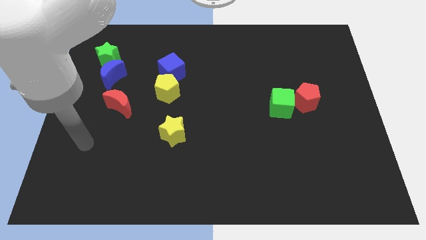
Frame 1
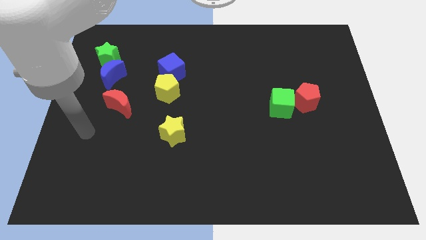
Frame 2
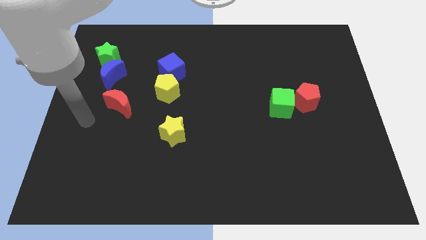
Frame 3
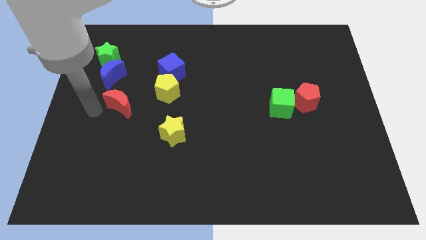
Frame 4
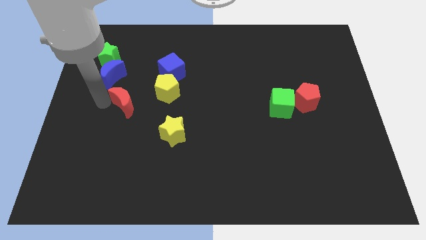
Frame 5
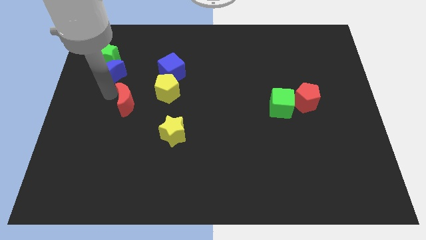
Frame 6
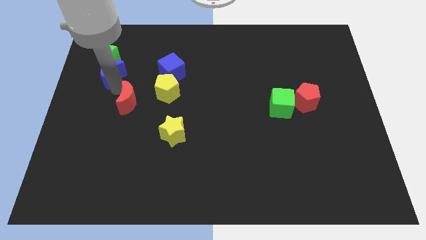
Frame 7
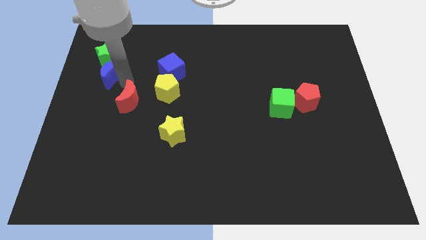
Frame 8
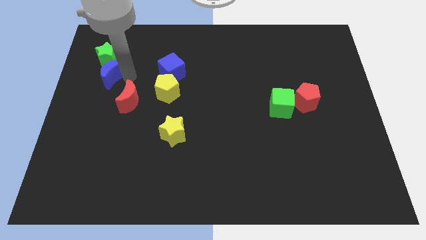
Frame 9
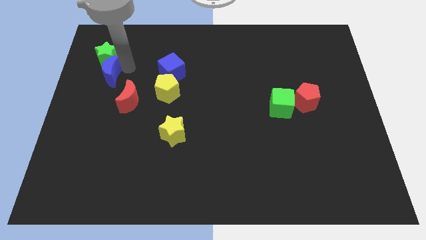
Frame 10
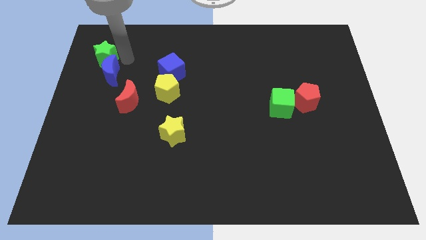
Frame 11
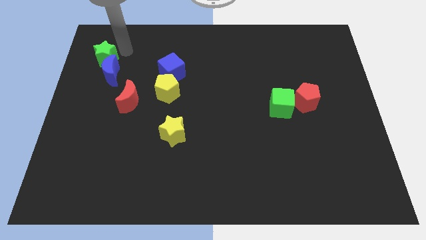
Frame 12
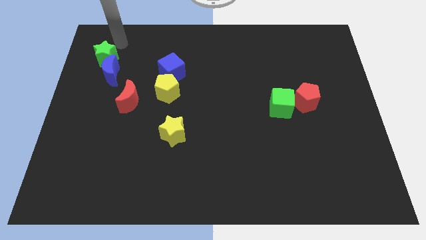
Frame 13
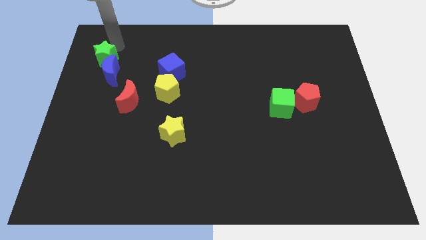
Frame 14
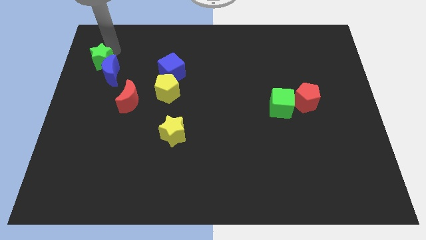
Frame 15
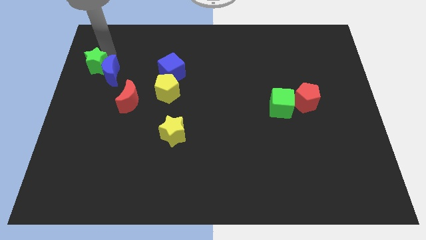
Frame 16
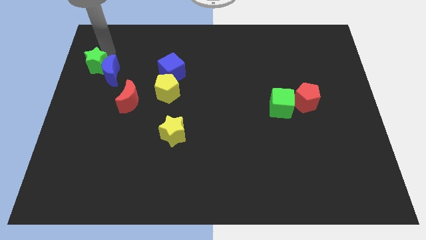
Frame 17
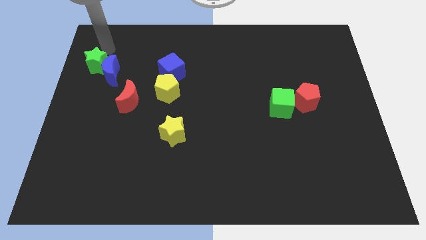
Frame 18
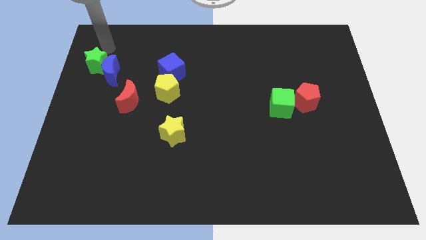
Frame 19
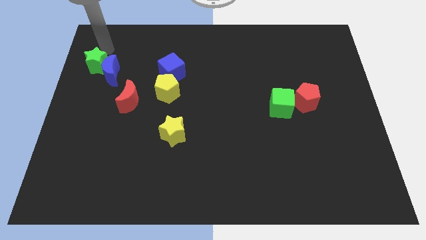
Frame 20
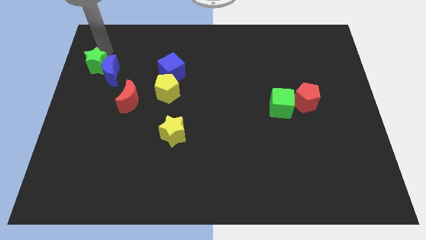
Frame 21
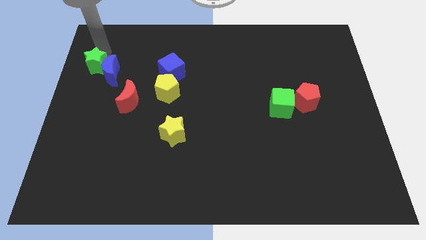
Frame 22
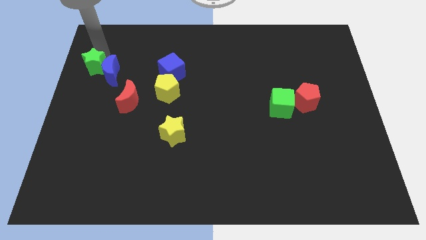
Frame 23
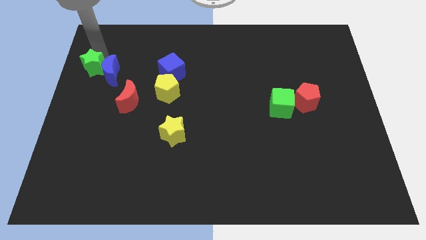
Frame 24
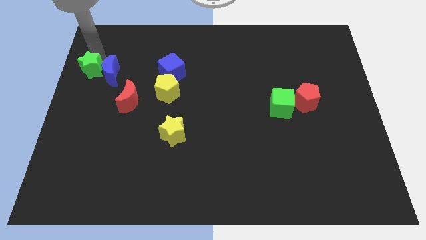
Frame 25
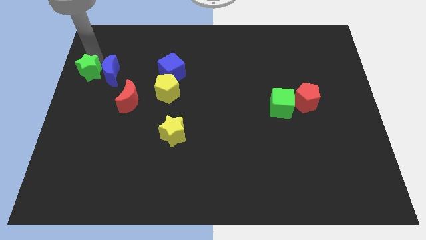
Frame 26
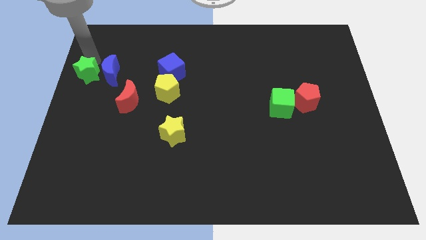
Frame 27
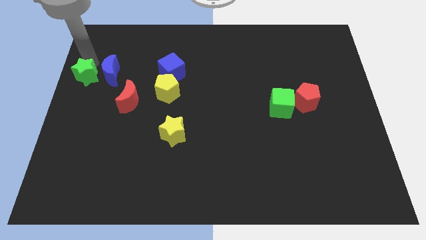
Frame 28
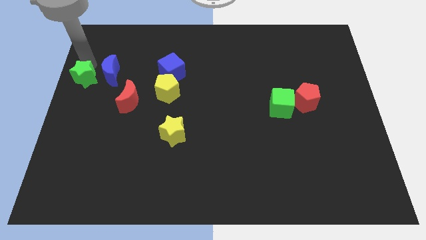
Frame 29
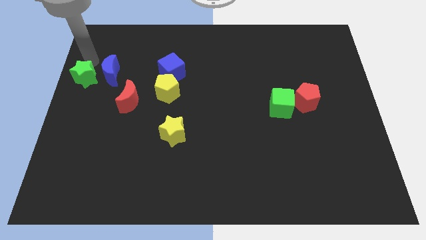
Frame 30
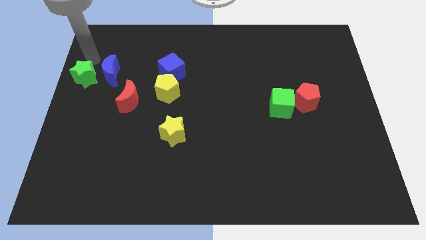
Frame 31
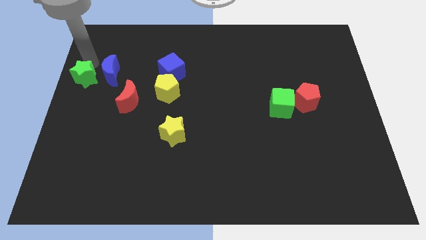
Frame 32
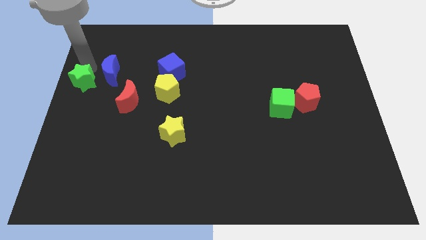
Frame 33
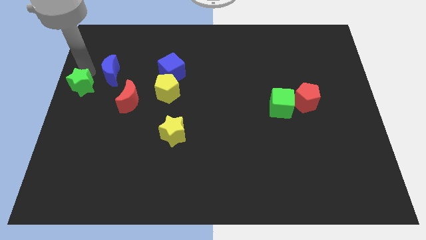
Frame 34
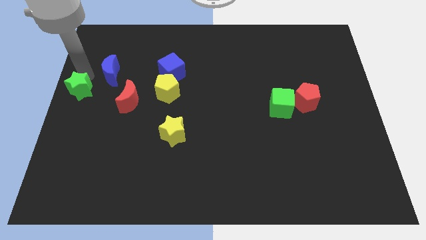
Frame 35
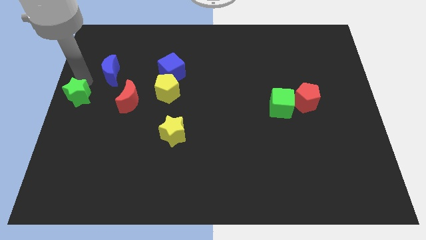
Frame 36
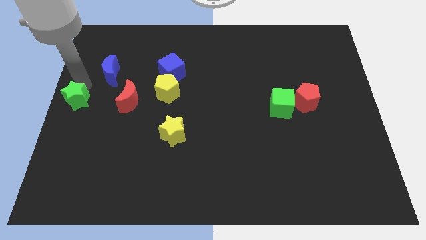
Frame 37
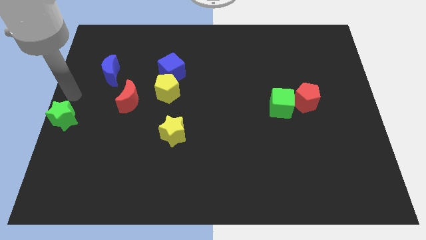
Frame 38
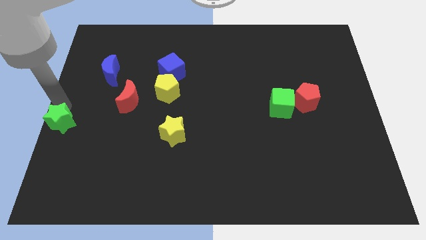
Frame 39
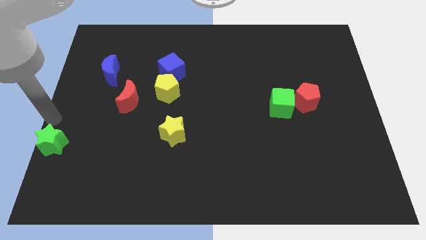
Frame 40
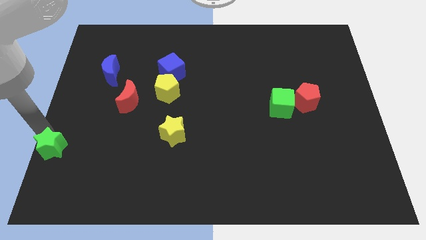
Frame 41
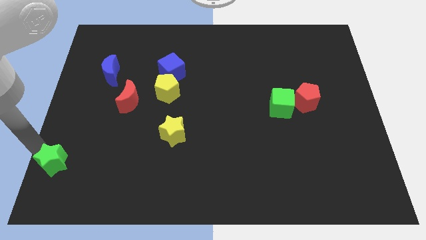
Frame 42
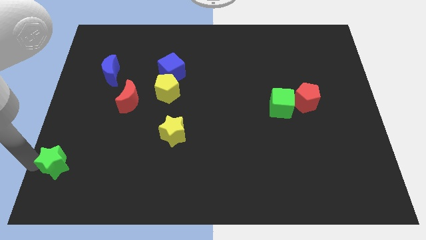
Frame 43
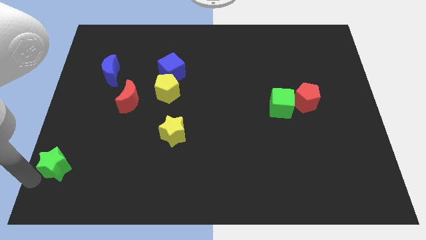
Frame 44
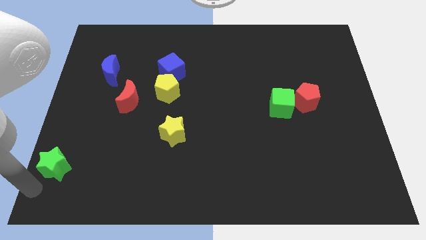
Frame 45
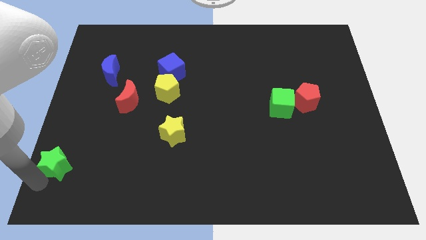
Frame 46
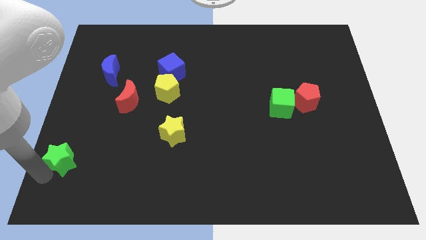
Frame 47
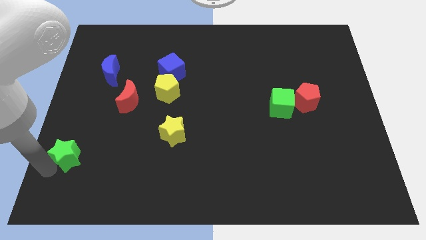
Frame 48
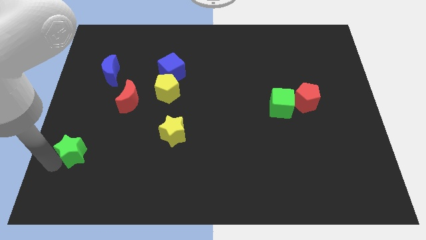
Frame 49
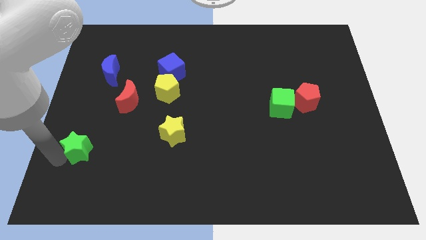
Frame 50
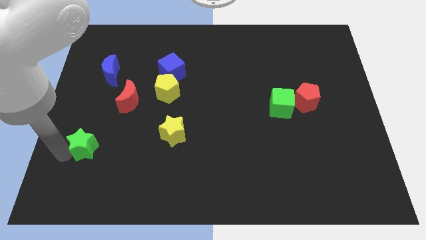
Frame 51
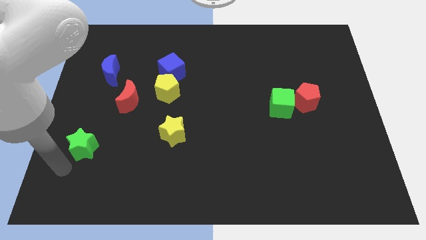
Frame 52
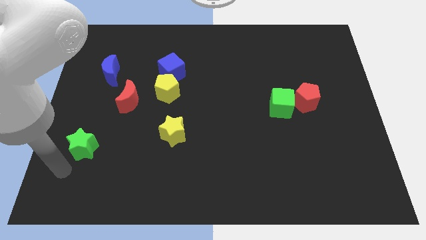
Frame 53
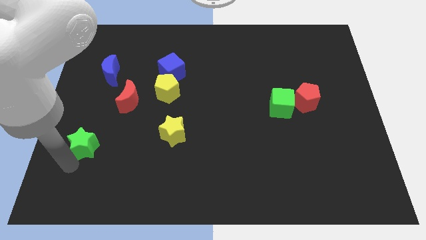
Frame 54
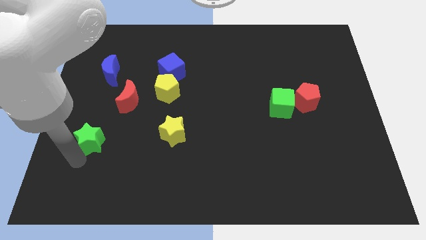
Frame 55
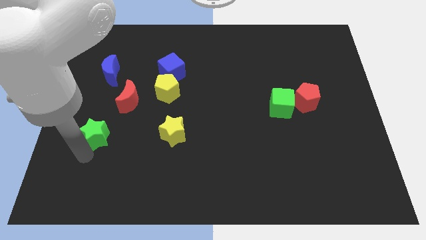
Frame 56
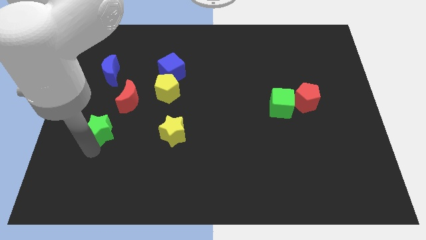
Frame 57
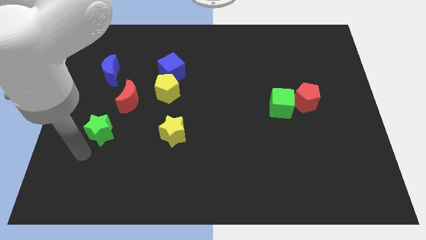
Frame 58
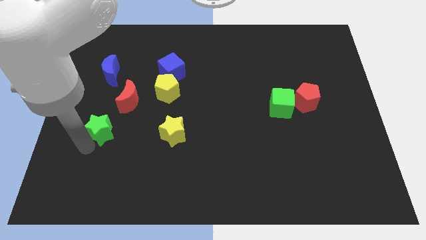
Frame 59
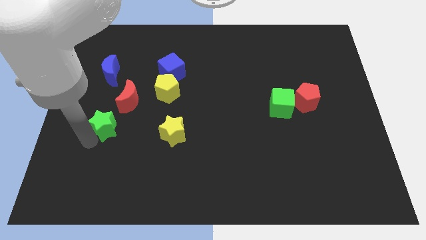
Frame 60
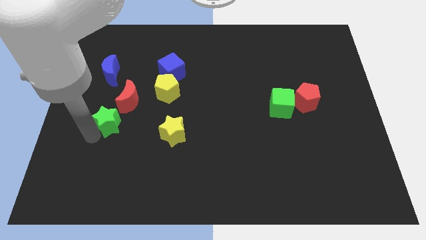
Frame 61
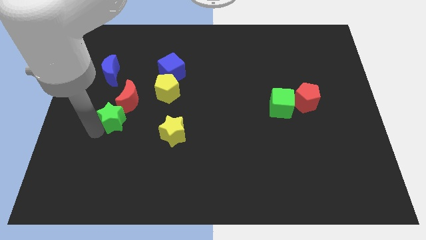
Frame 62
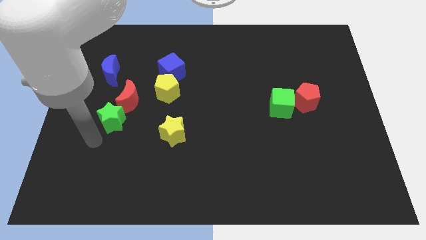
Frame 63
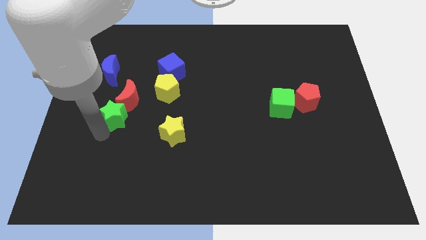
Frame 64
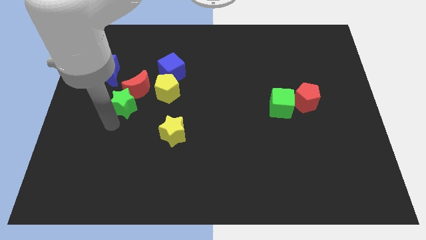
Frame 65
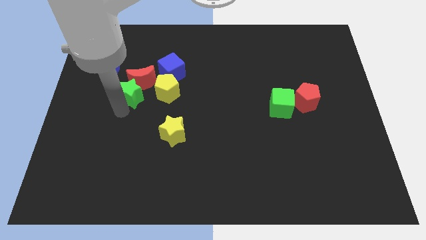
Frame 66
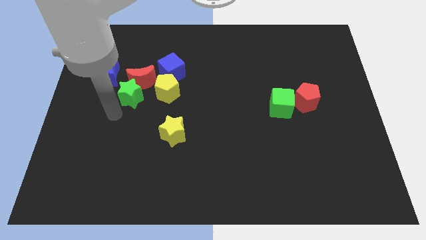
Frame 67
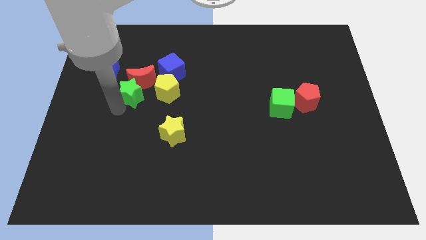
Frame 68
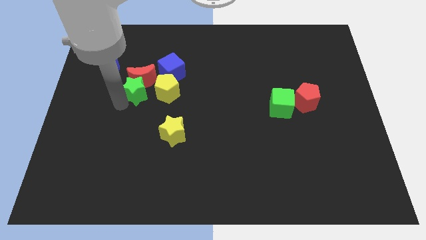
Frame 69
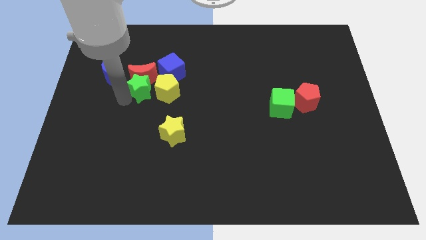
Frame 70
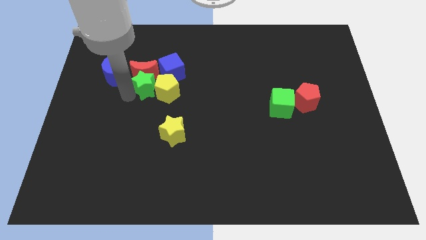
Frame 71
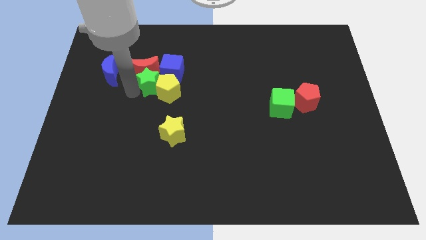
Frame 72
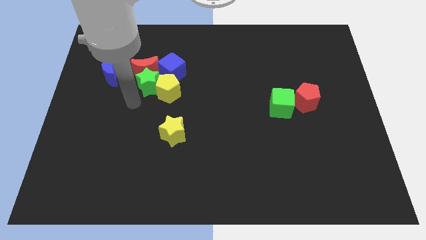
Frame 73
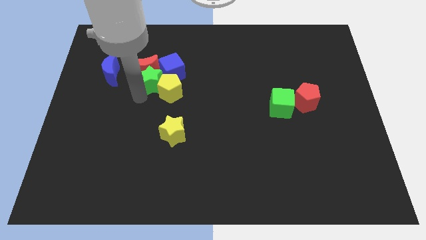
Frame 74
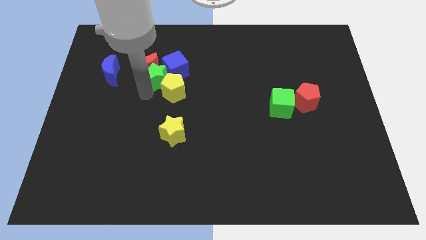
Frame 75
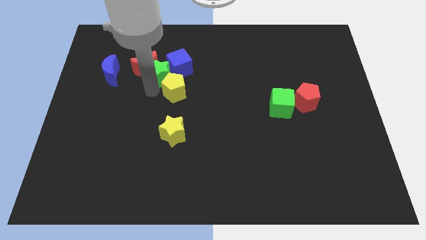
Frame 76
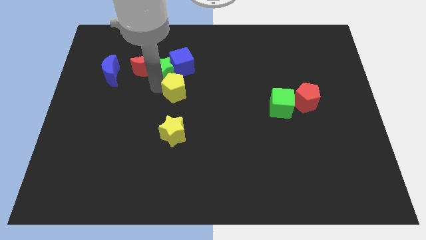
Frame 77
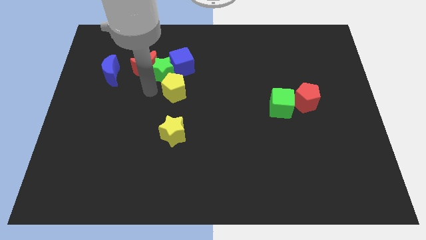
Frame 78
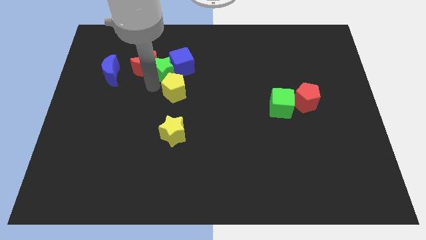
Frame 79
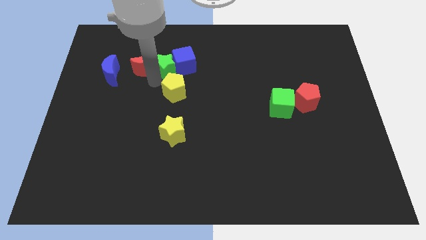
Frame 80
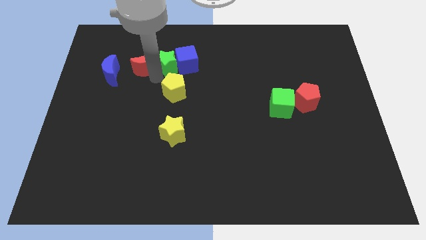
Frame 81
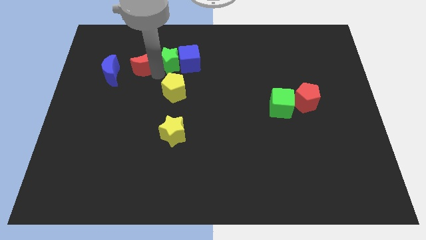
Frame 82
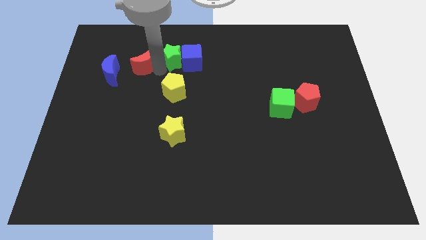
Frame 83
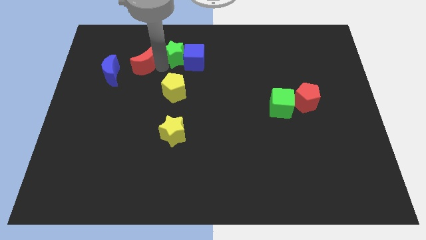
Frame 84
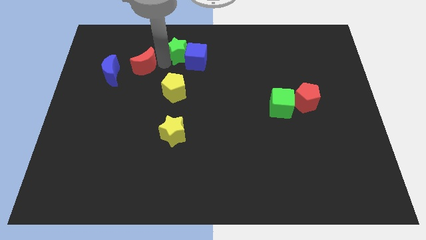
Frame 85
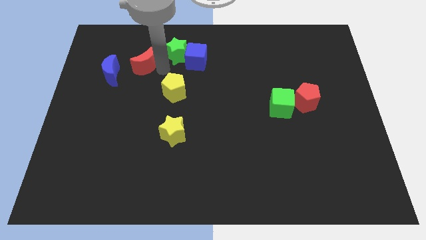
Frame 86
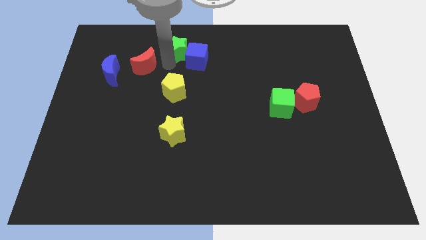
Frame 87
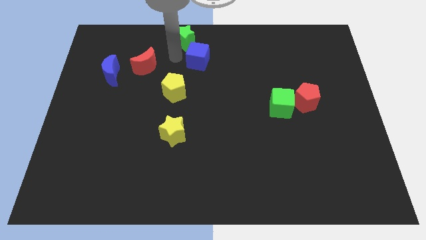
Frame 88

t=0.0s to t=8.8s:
put the green star to the towards your base
